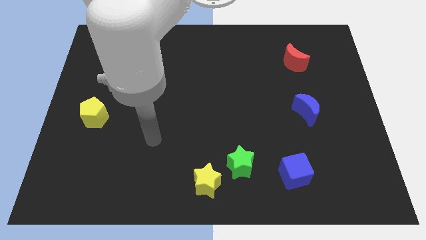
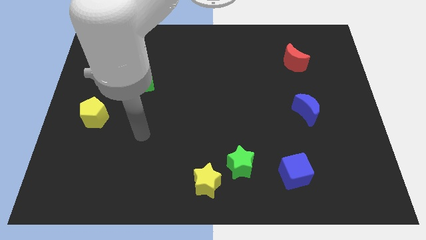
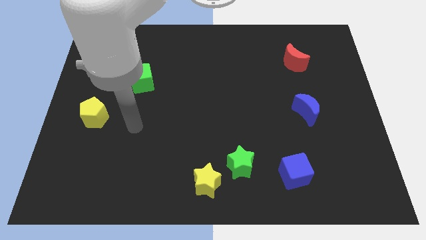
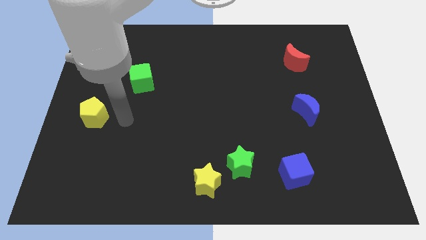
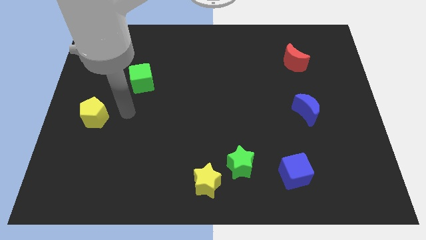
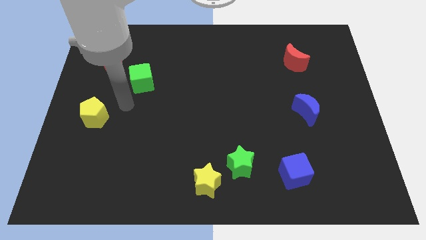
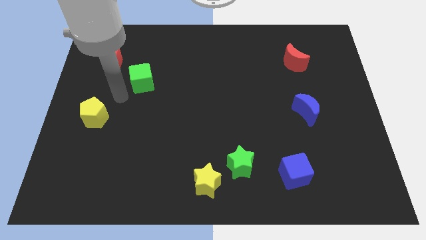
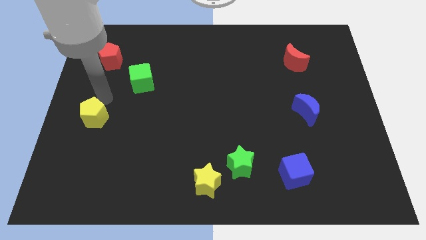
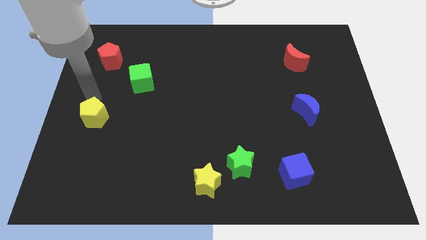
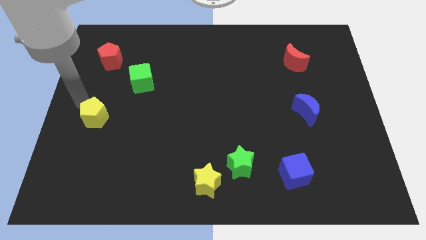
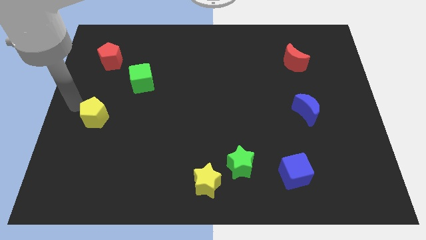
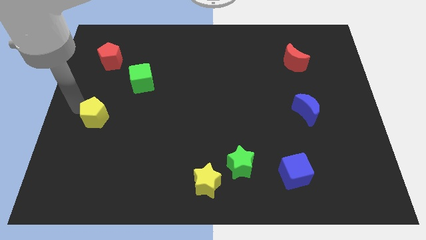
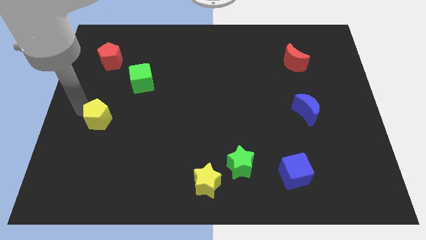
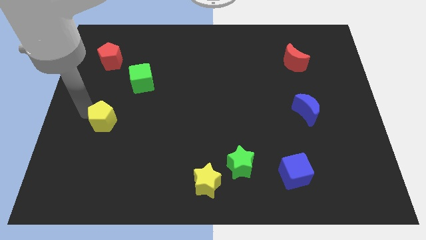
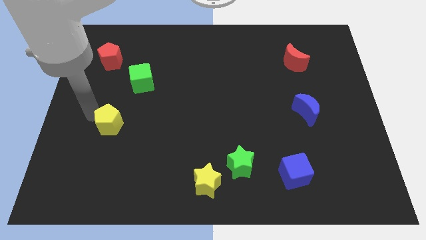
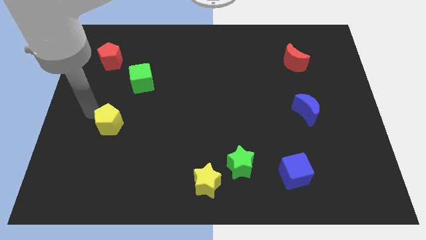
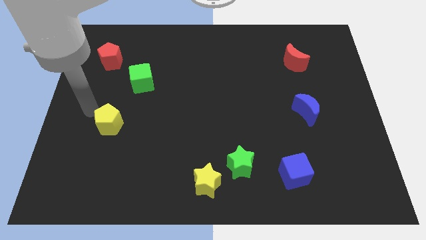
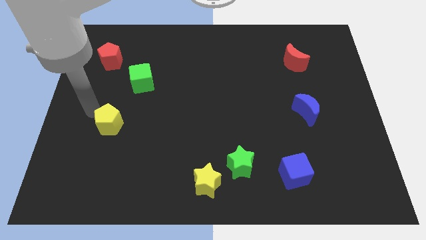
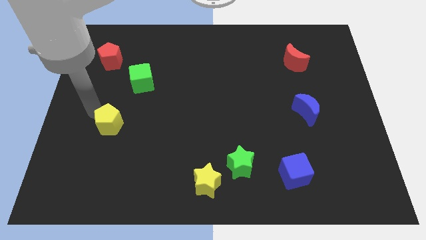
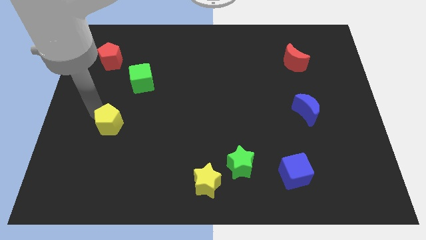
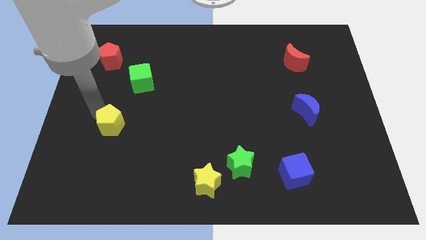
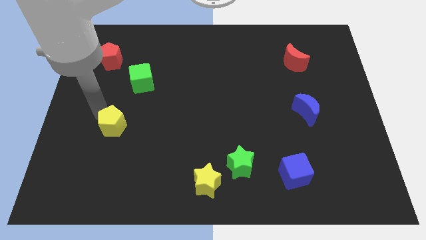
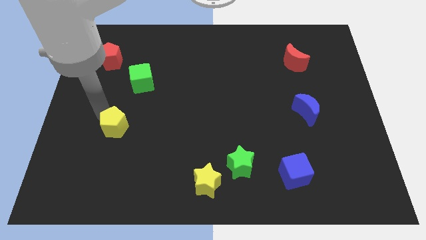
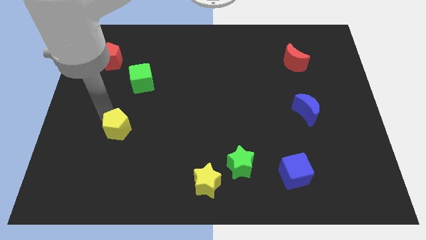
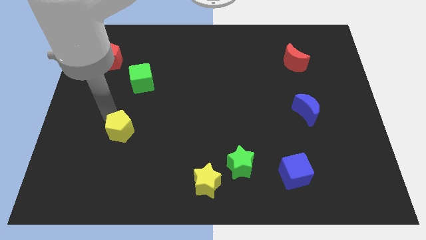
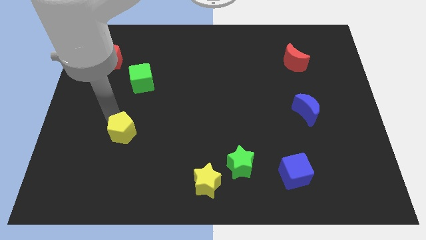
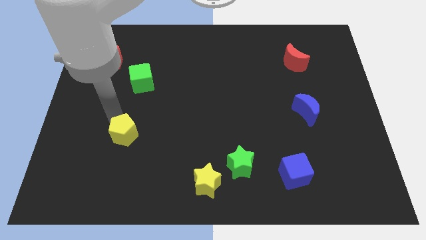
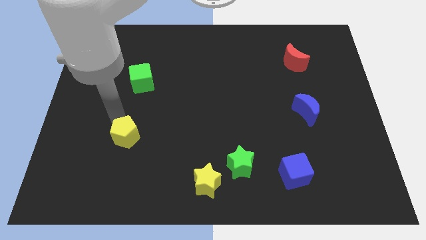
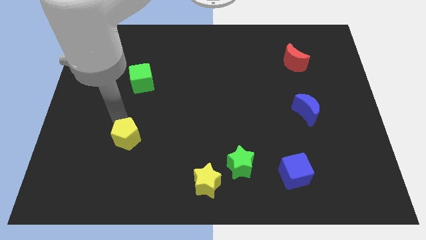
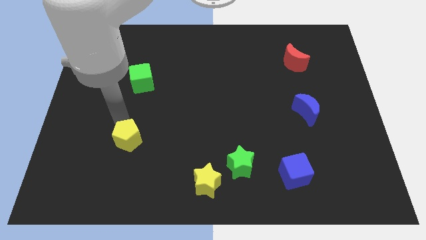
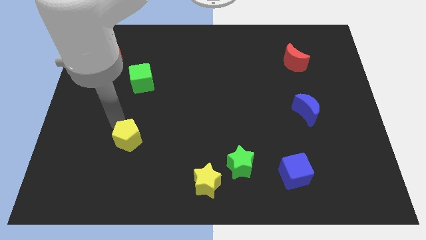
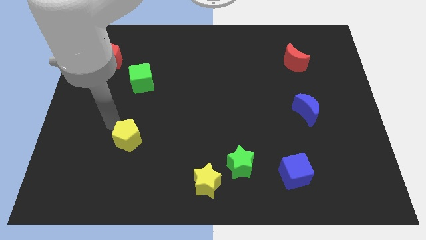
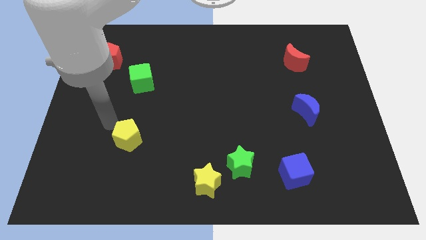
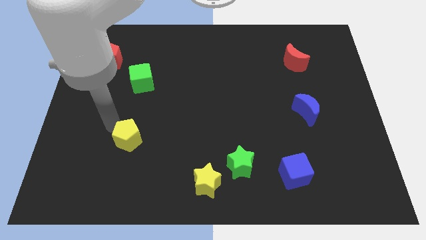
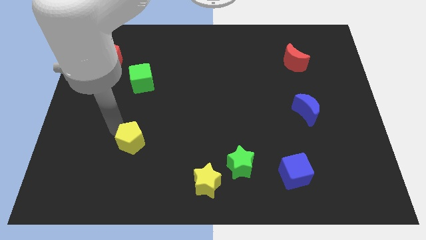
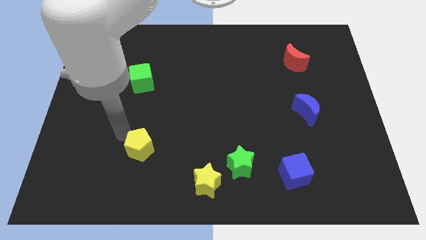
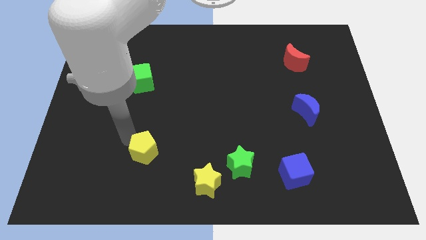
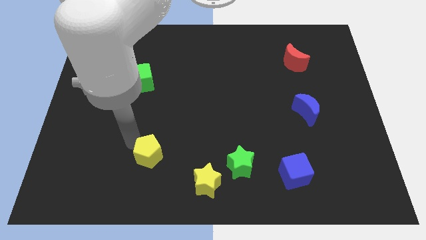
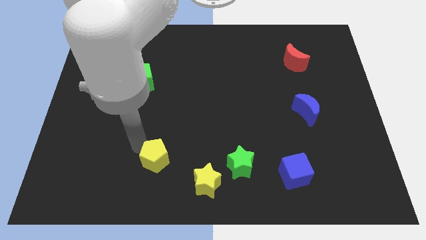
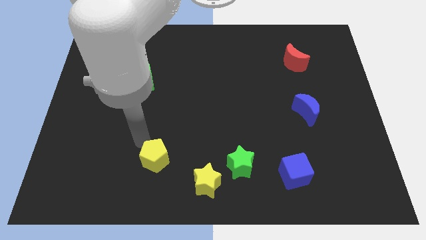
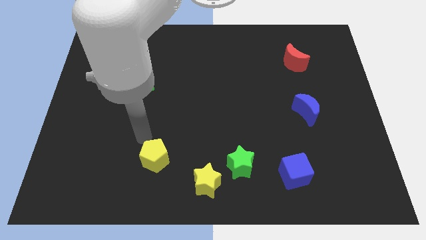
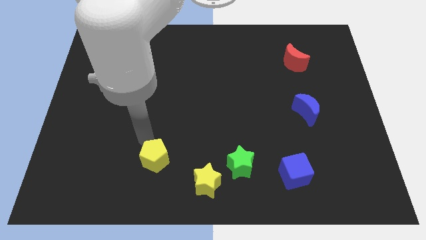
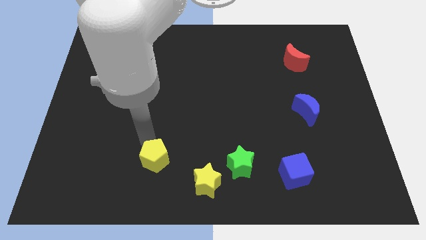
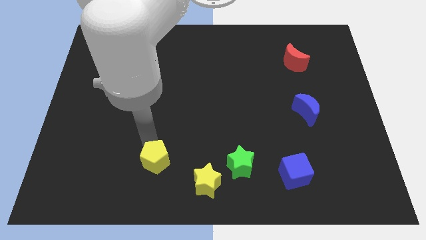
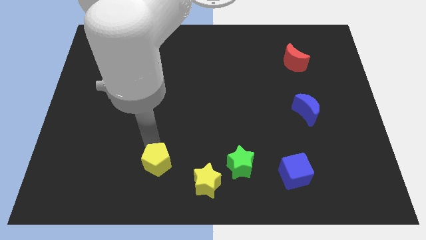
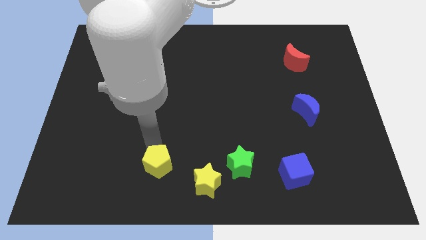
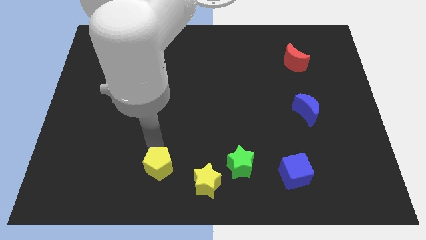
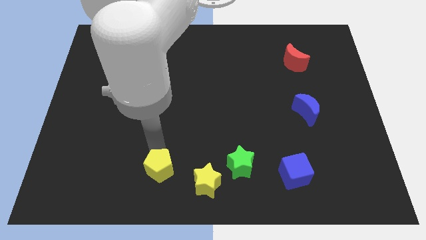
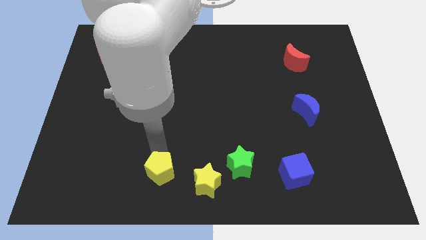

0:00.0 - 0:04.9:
slide the yellow pentagon to the bottom
